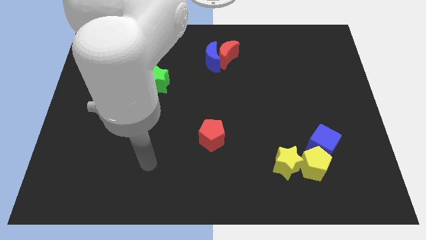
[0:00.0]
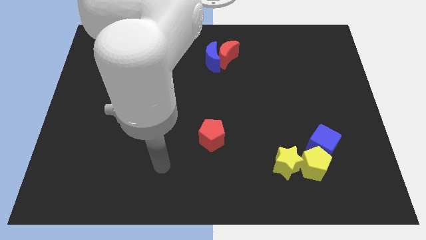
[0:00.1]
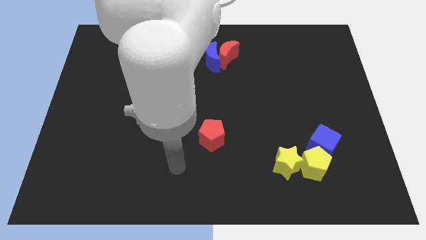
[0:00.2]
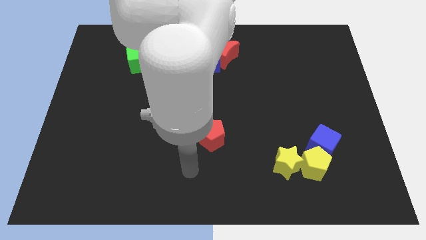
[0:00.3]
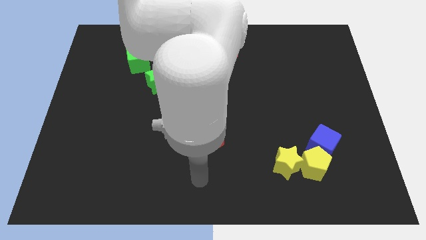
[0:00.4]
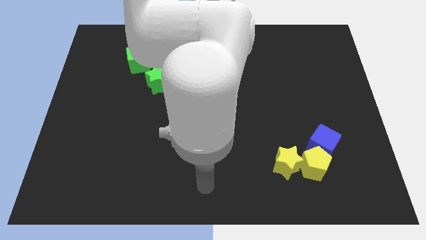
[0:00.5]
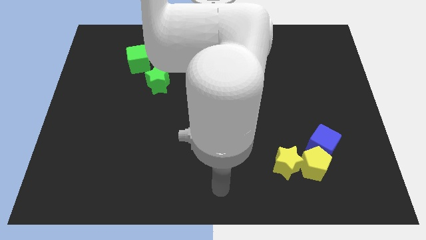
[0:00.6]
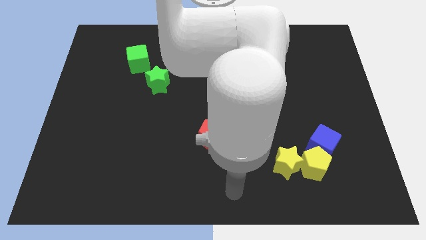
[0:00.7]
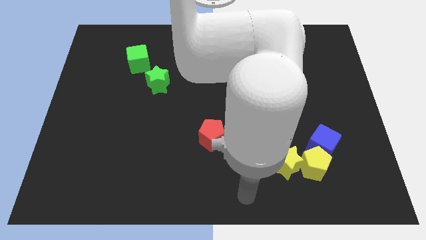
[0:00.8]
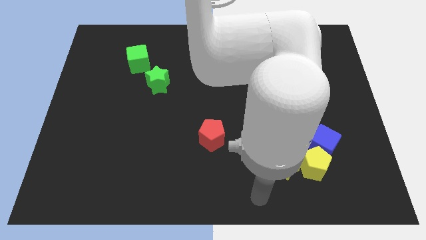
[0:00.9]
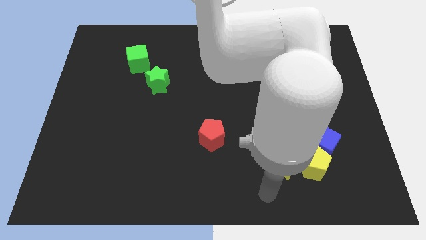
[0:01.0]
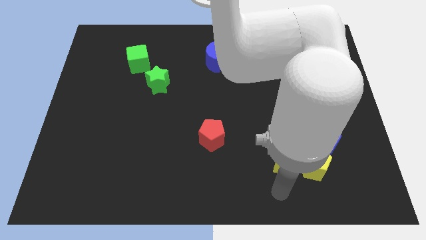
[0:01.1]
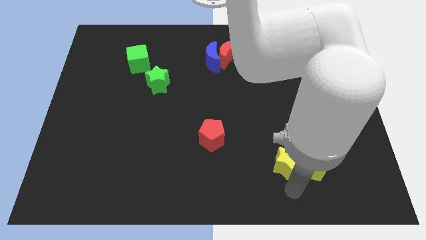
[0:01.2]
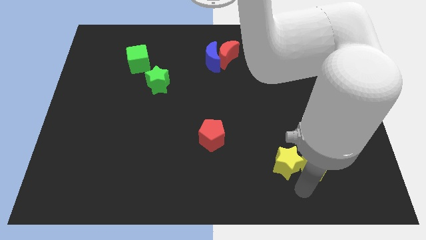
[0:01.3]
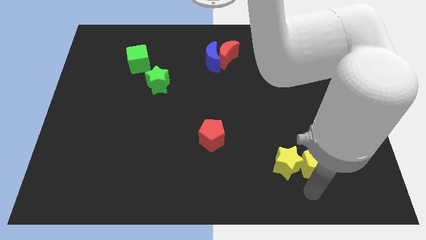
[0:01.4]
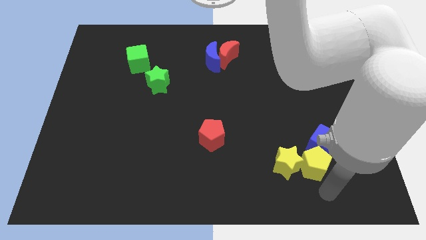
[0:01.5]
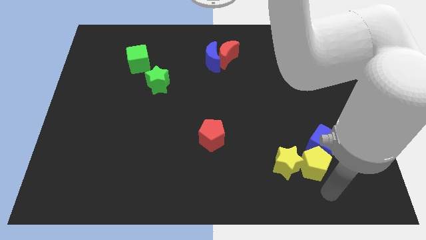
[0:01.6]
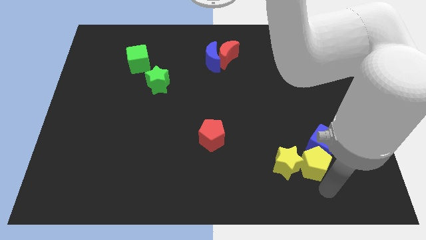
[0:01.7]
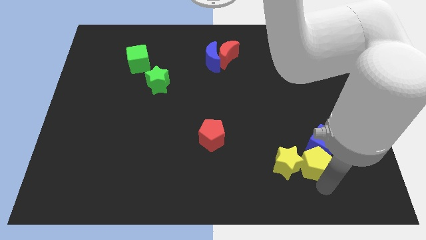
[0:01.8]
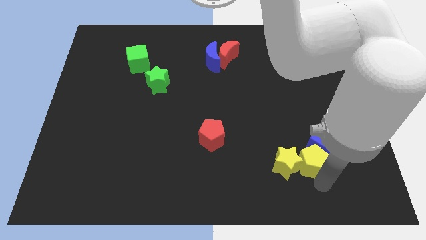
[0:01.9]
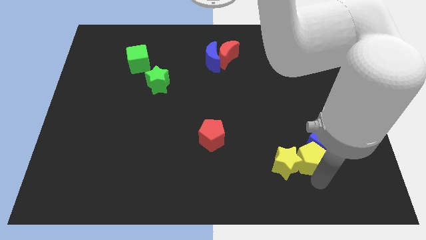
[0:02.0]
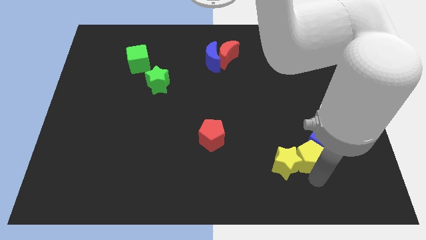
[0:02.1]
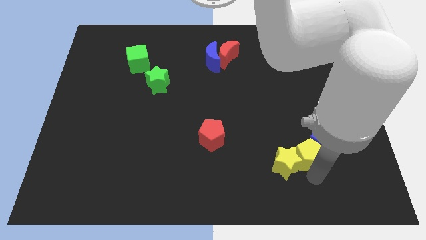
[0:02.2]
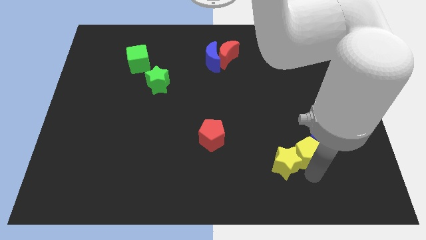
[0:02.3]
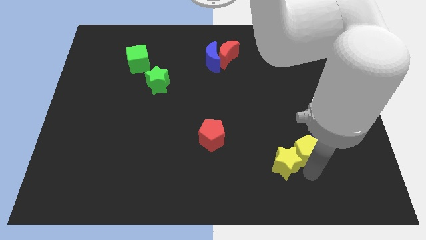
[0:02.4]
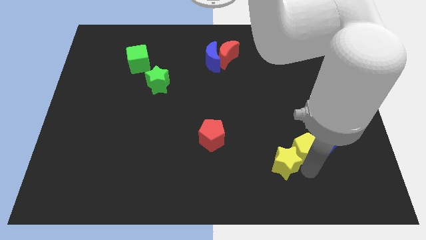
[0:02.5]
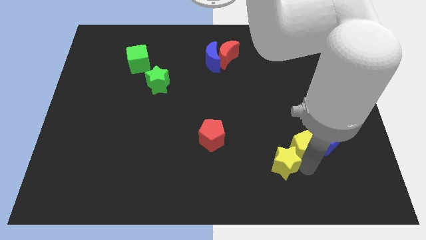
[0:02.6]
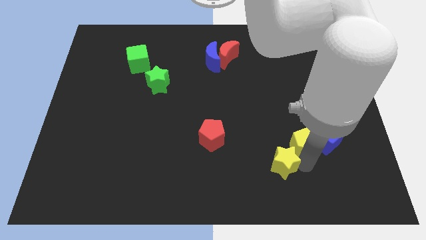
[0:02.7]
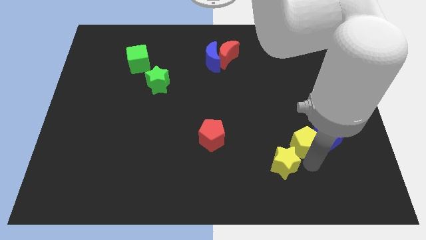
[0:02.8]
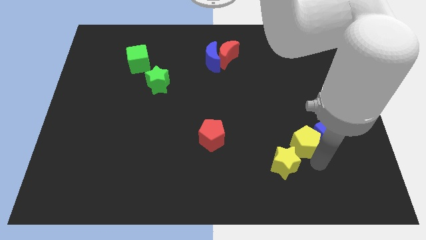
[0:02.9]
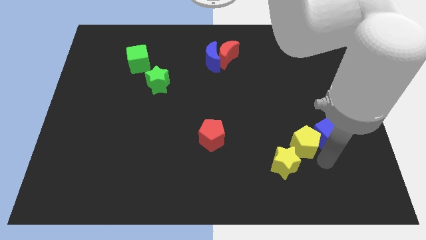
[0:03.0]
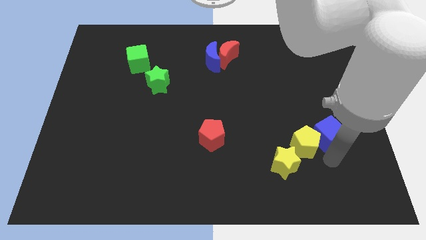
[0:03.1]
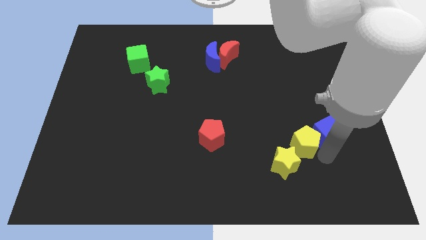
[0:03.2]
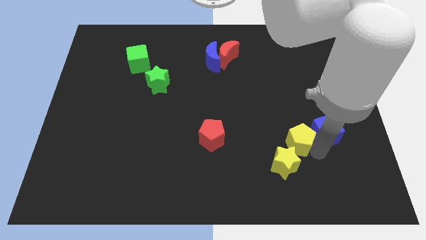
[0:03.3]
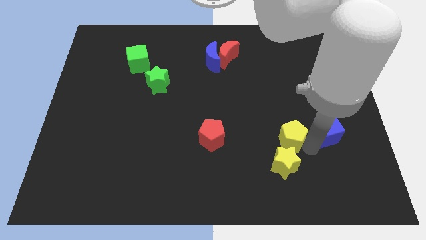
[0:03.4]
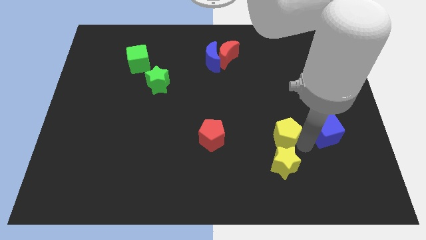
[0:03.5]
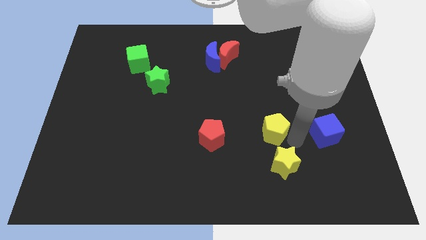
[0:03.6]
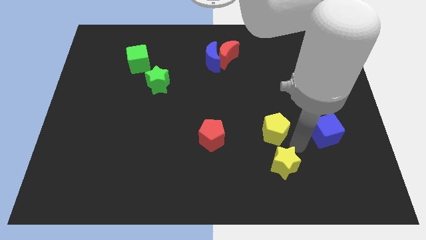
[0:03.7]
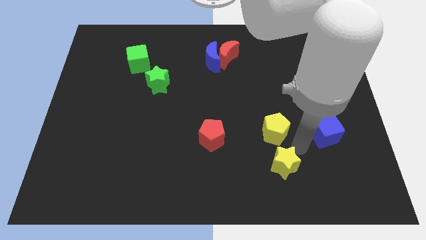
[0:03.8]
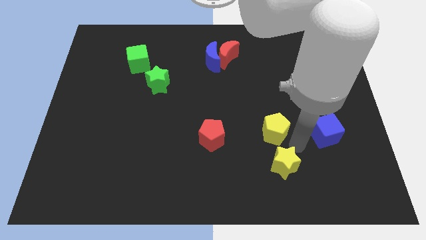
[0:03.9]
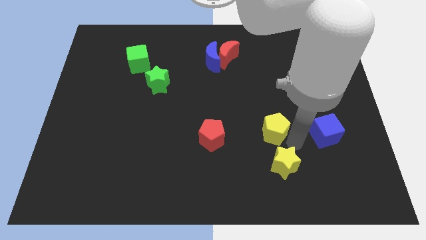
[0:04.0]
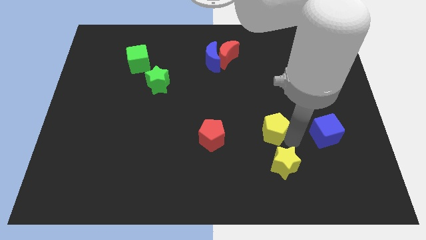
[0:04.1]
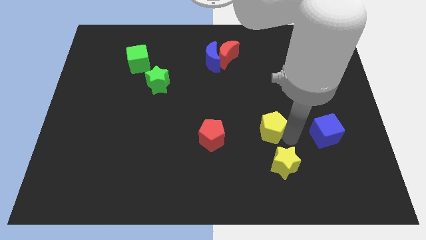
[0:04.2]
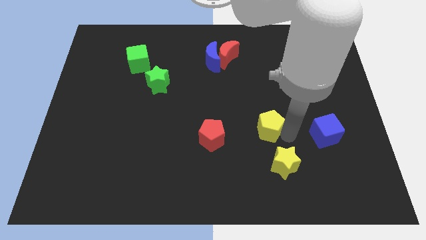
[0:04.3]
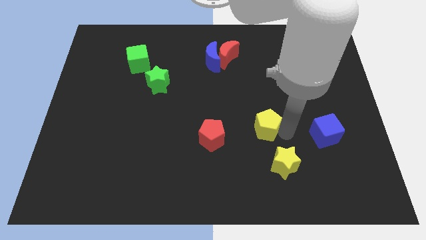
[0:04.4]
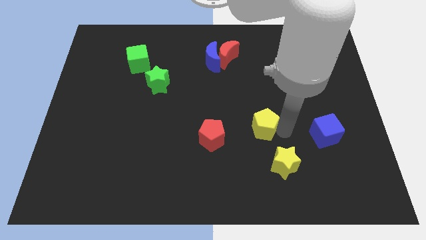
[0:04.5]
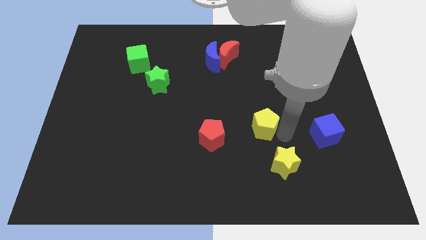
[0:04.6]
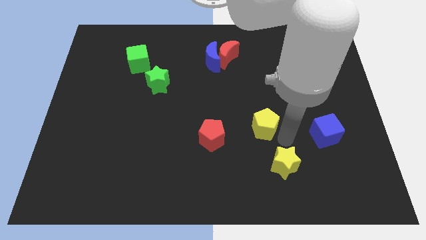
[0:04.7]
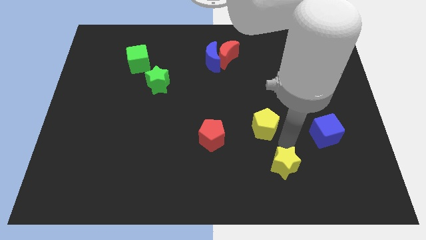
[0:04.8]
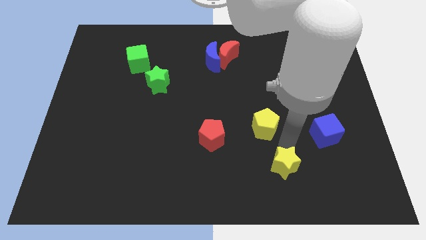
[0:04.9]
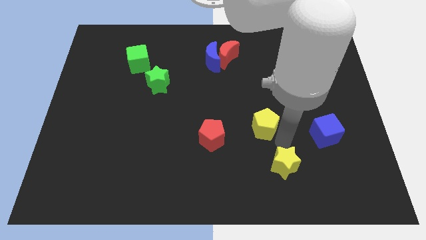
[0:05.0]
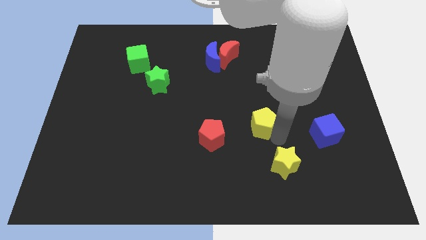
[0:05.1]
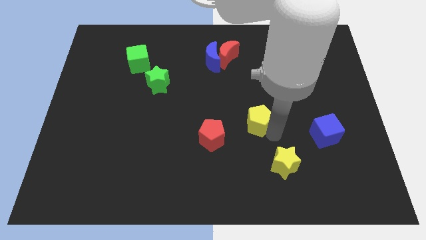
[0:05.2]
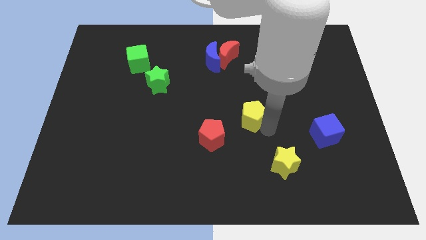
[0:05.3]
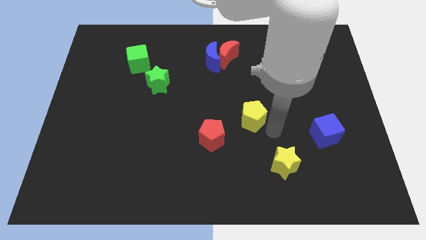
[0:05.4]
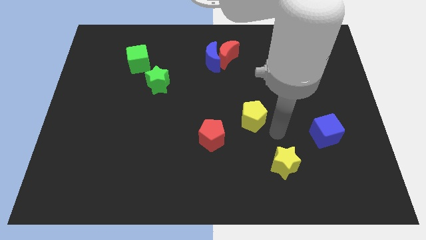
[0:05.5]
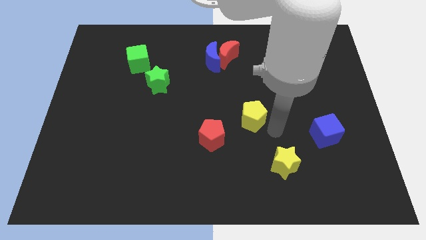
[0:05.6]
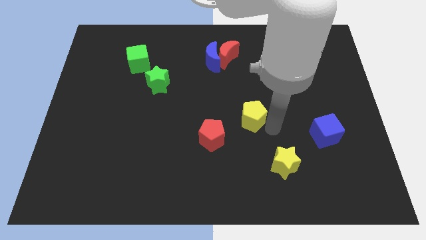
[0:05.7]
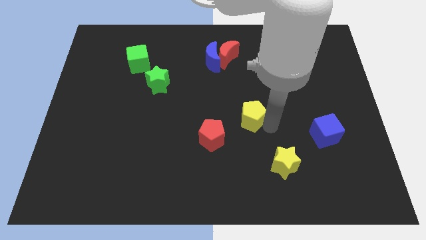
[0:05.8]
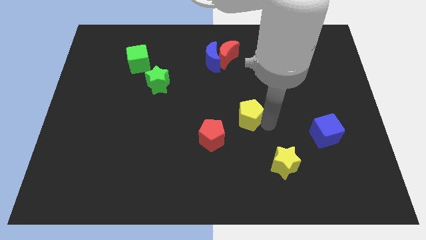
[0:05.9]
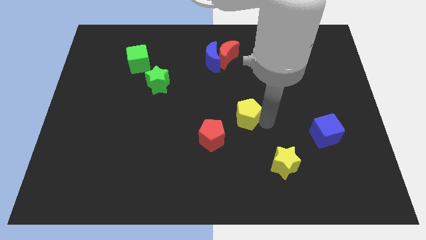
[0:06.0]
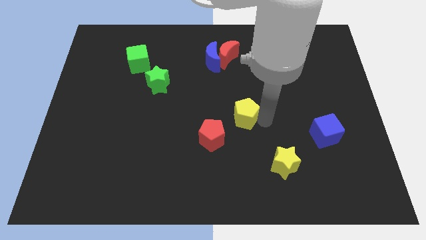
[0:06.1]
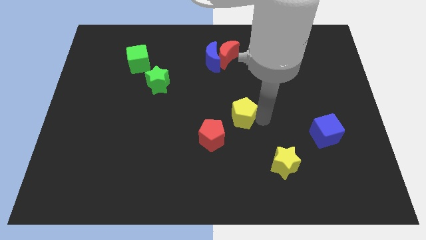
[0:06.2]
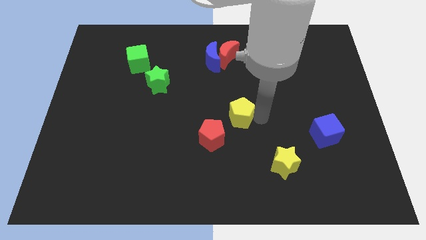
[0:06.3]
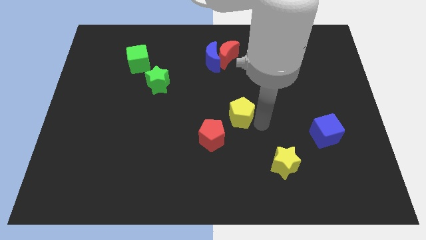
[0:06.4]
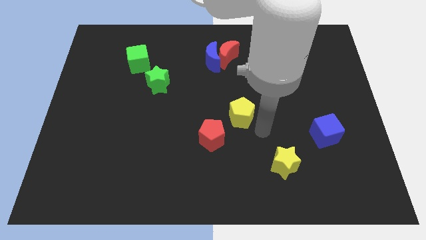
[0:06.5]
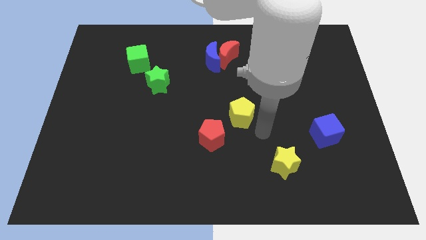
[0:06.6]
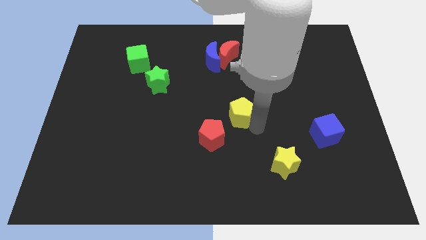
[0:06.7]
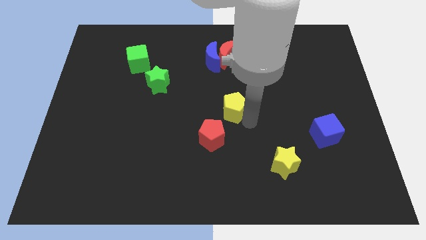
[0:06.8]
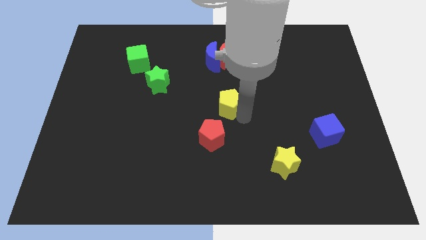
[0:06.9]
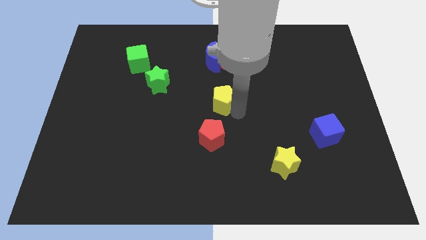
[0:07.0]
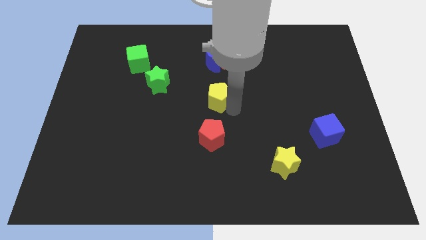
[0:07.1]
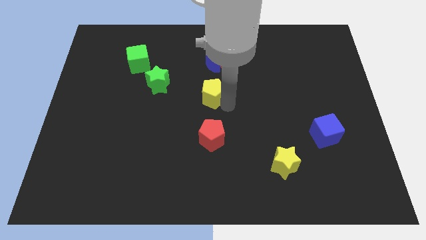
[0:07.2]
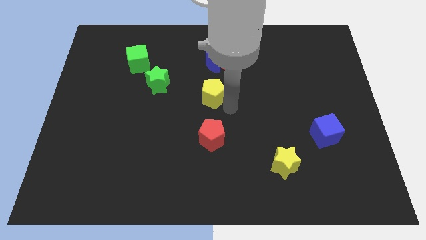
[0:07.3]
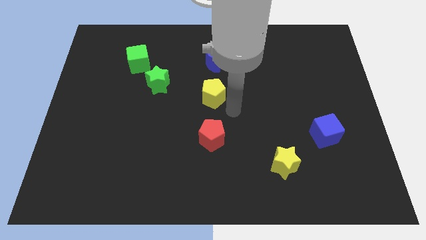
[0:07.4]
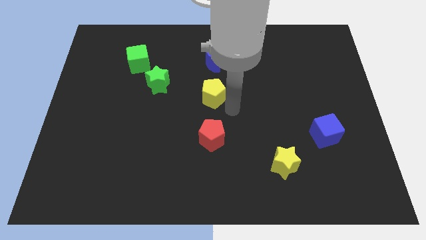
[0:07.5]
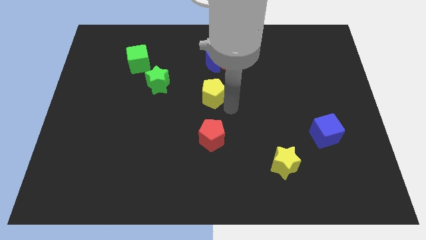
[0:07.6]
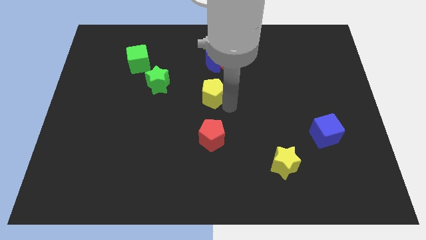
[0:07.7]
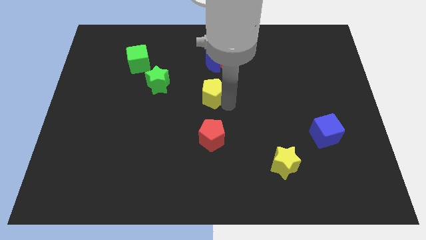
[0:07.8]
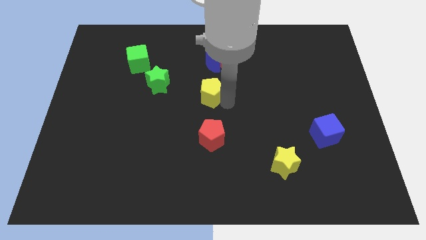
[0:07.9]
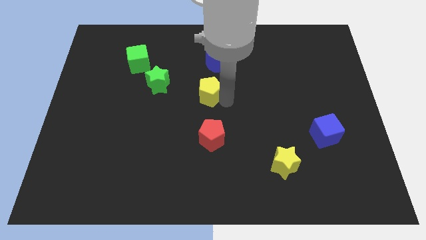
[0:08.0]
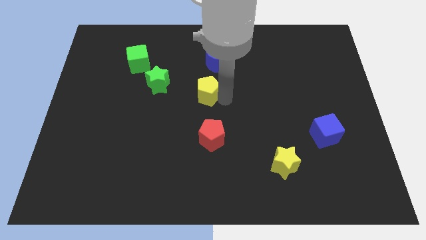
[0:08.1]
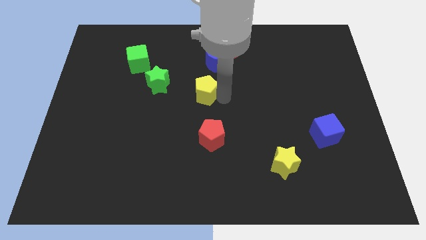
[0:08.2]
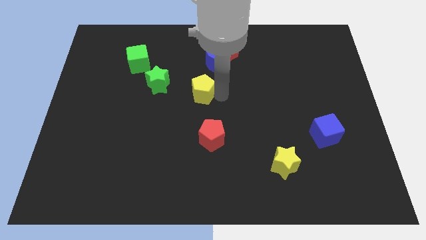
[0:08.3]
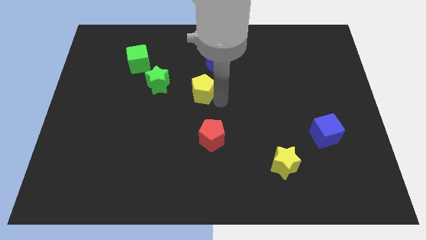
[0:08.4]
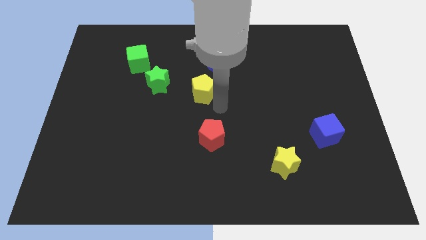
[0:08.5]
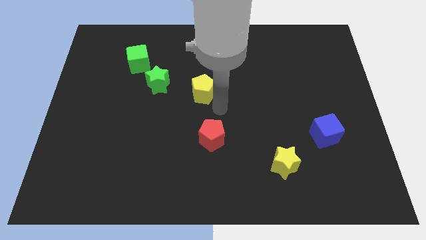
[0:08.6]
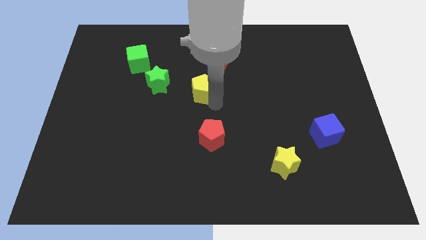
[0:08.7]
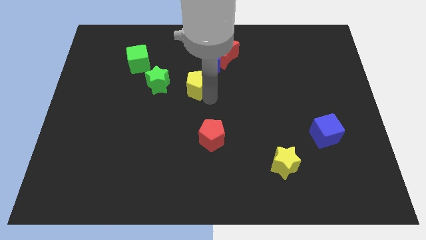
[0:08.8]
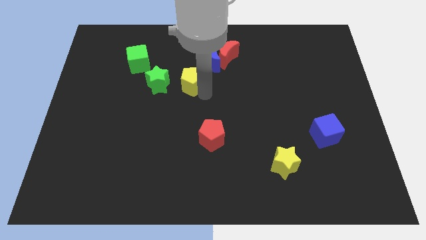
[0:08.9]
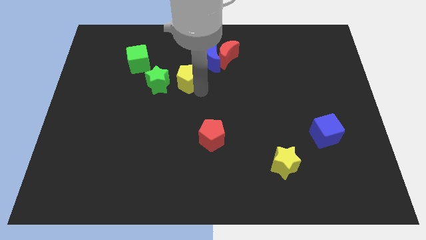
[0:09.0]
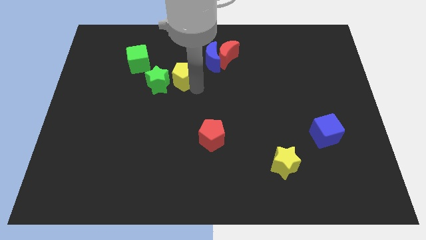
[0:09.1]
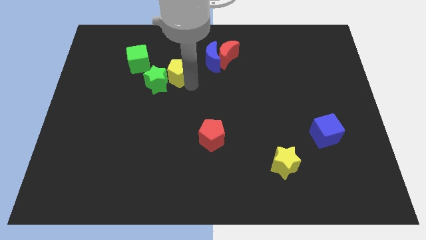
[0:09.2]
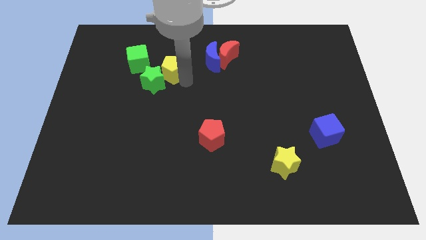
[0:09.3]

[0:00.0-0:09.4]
move the yellow pentagon to the left of the blue moon
